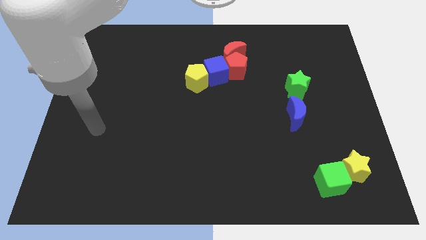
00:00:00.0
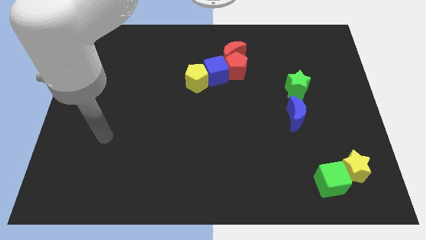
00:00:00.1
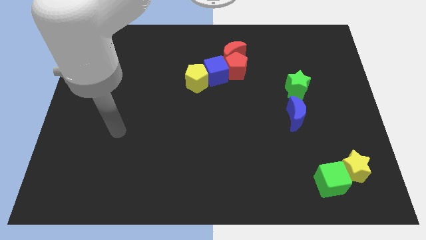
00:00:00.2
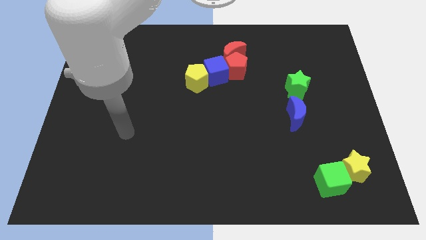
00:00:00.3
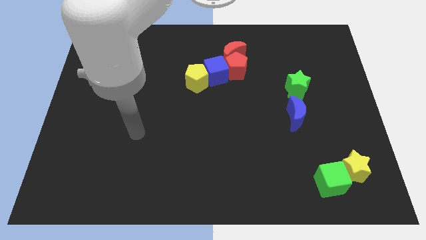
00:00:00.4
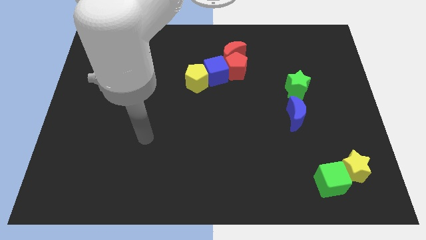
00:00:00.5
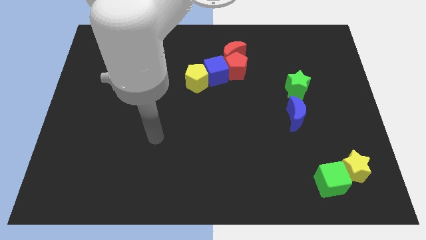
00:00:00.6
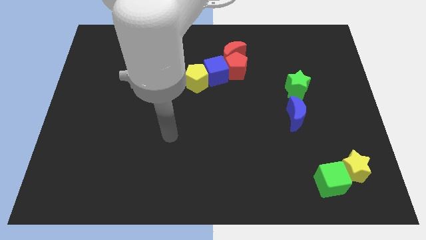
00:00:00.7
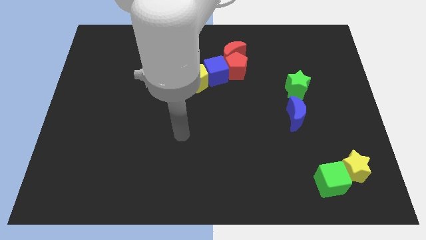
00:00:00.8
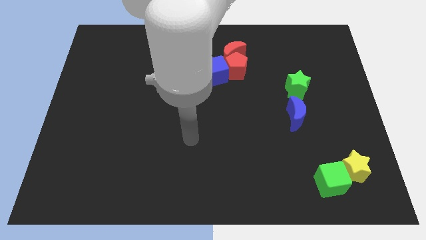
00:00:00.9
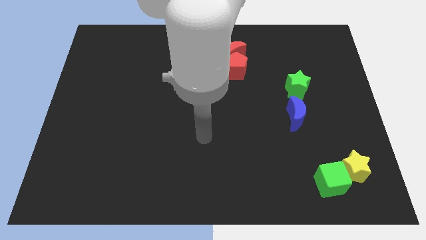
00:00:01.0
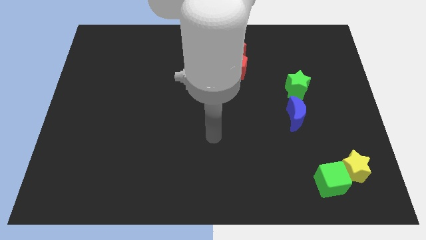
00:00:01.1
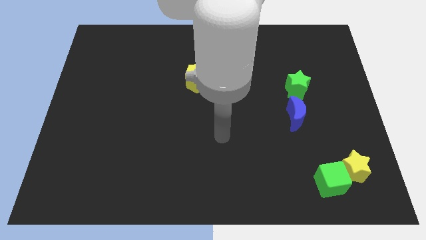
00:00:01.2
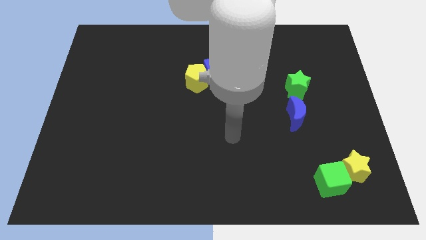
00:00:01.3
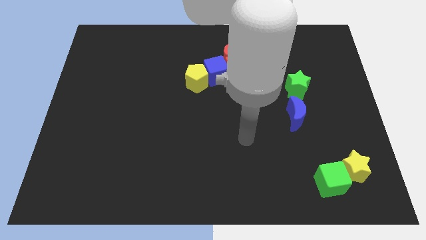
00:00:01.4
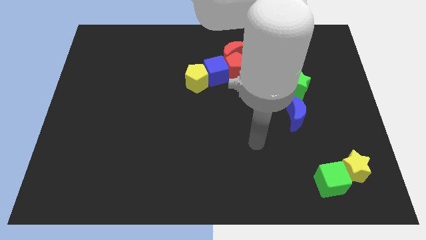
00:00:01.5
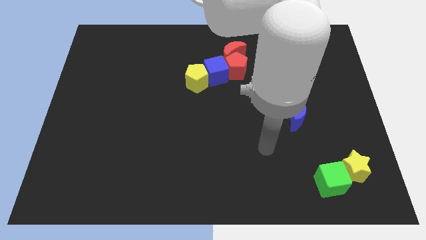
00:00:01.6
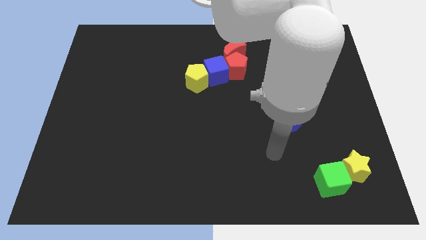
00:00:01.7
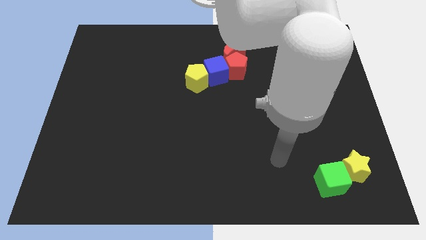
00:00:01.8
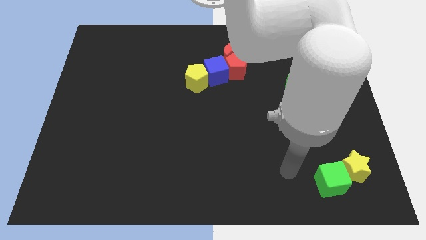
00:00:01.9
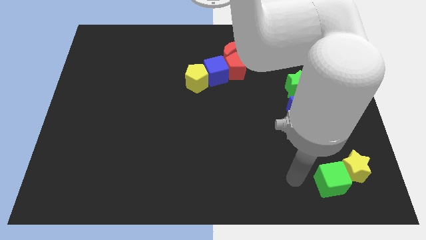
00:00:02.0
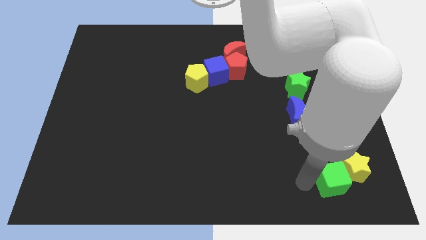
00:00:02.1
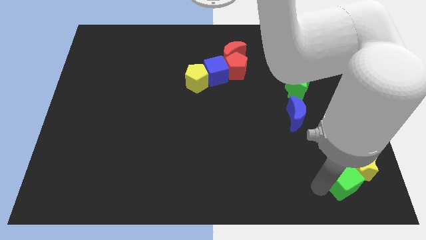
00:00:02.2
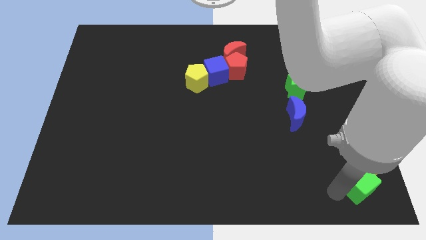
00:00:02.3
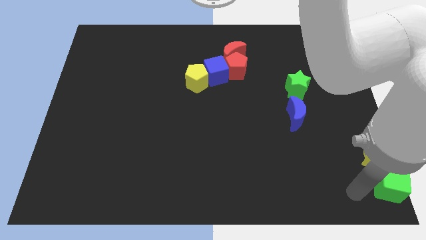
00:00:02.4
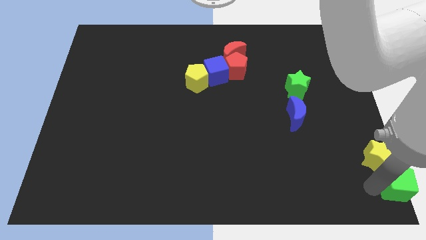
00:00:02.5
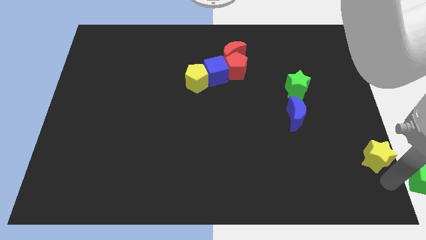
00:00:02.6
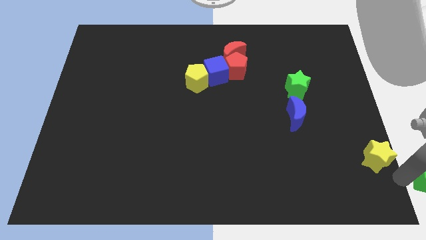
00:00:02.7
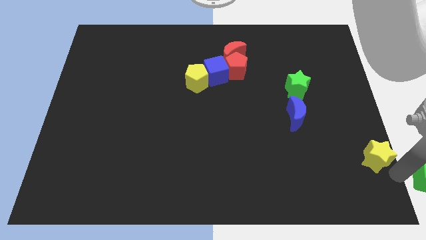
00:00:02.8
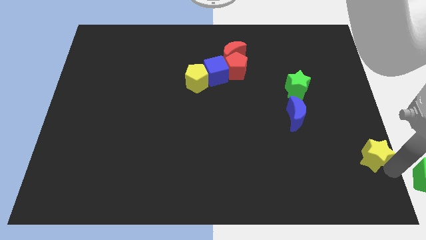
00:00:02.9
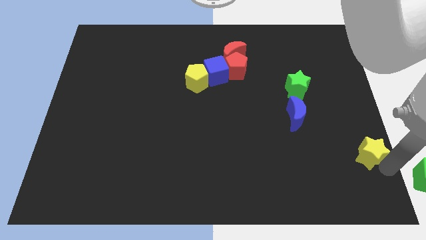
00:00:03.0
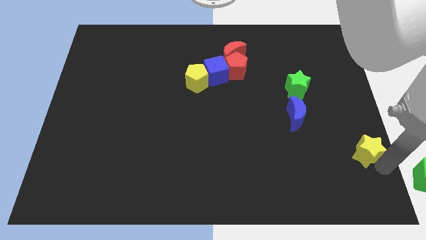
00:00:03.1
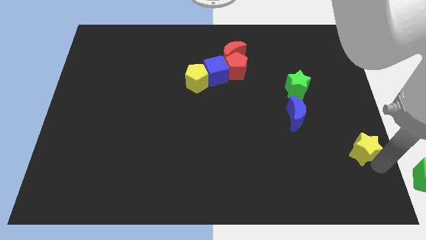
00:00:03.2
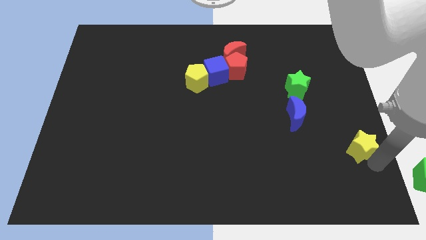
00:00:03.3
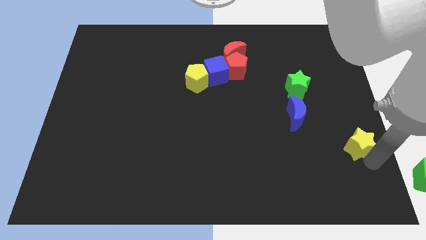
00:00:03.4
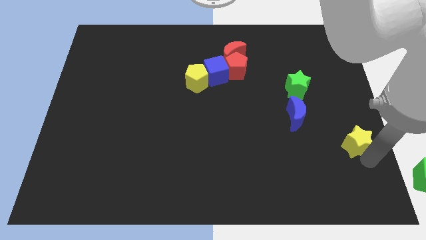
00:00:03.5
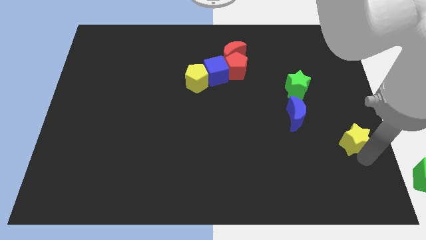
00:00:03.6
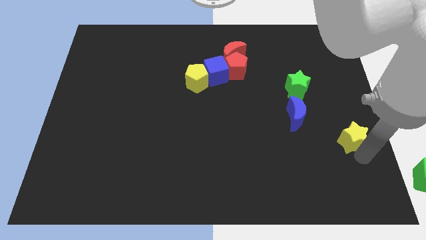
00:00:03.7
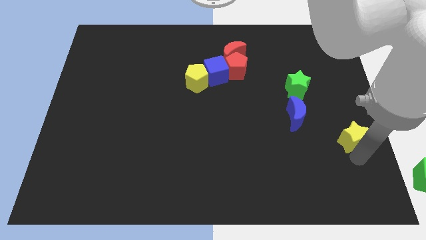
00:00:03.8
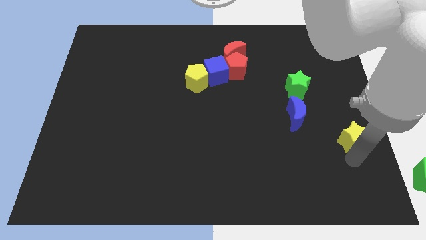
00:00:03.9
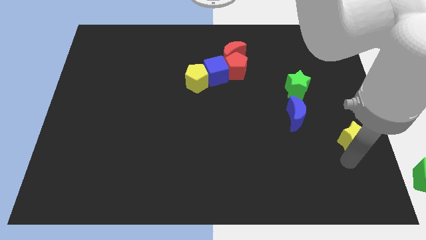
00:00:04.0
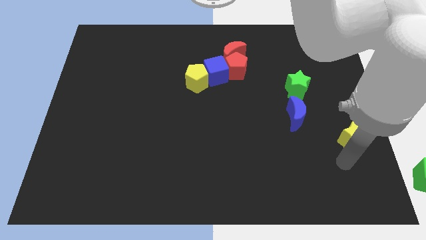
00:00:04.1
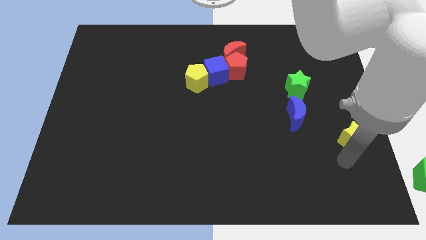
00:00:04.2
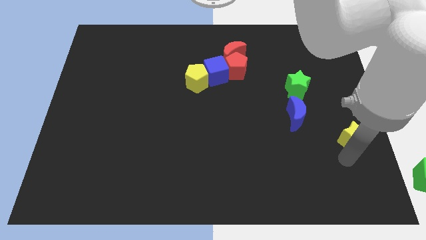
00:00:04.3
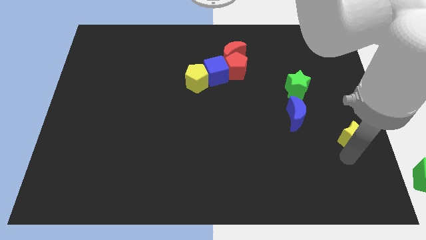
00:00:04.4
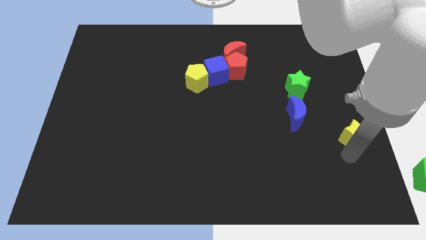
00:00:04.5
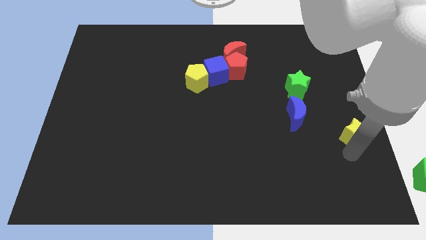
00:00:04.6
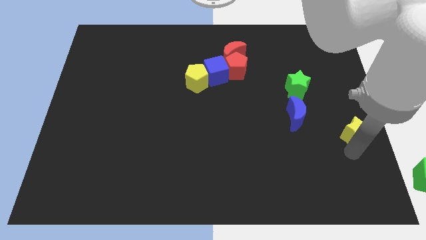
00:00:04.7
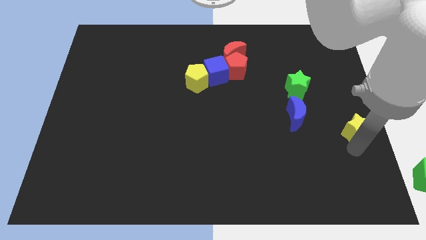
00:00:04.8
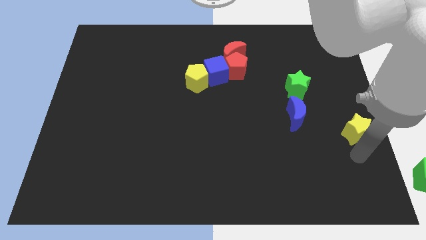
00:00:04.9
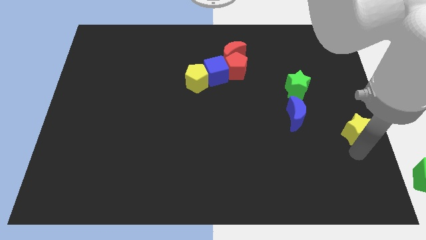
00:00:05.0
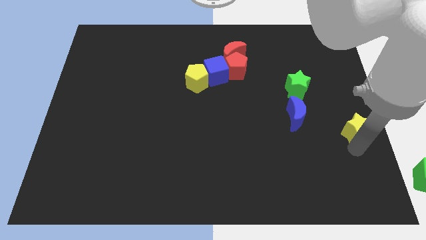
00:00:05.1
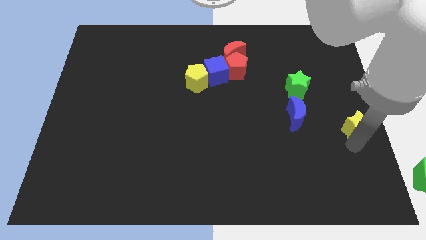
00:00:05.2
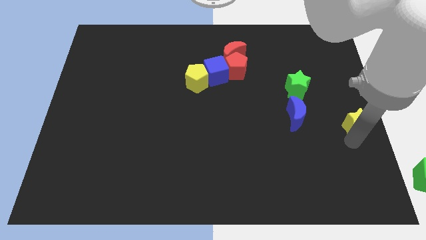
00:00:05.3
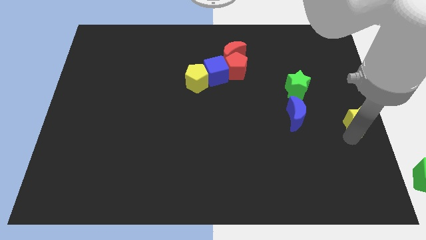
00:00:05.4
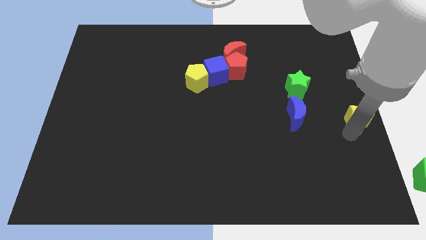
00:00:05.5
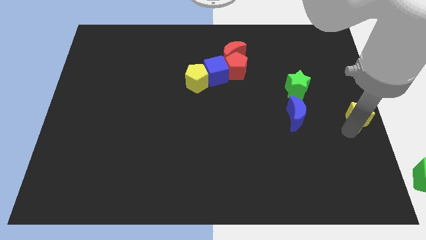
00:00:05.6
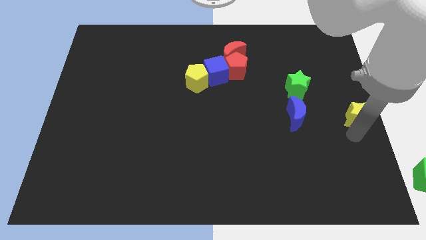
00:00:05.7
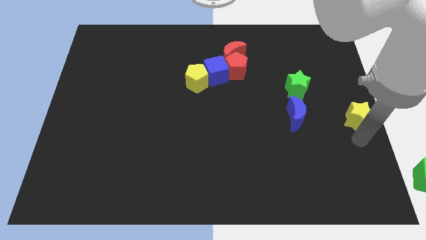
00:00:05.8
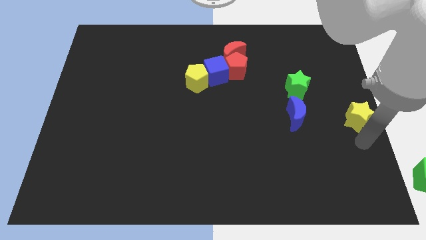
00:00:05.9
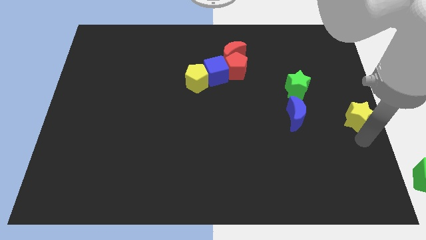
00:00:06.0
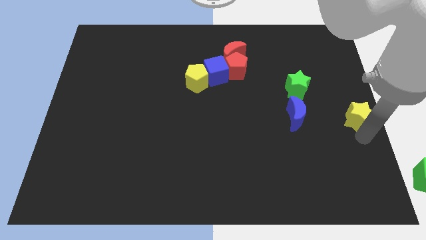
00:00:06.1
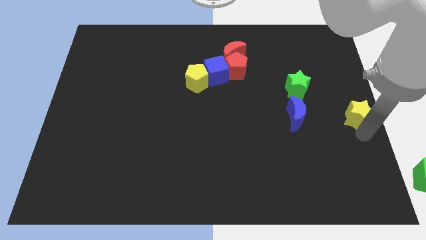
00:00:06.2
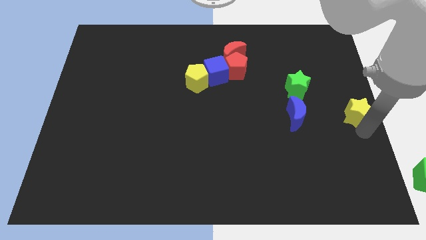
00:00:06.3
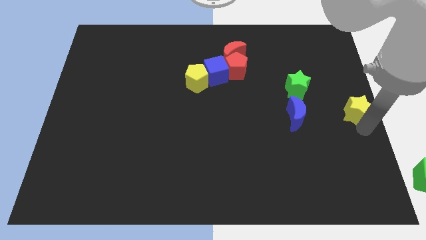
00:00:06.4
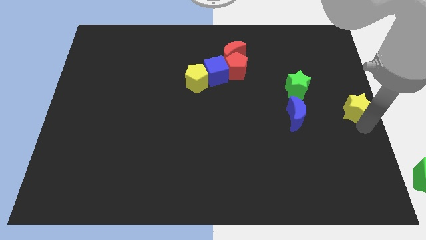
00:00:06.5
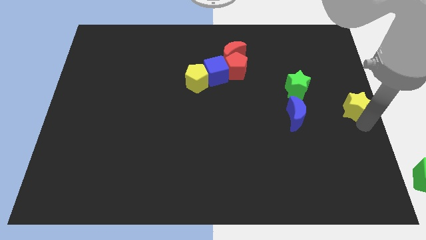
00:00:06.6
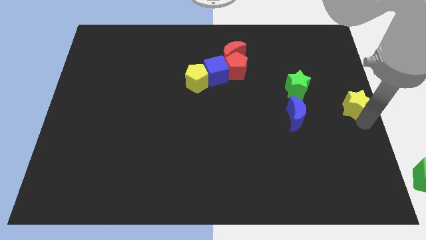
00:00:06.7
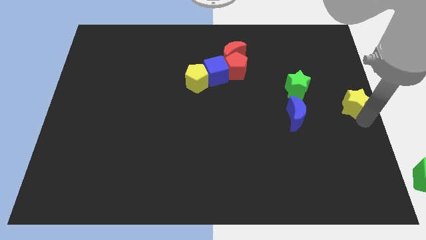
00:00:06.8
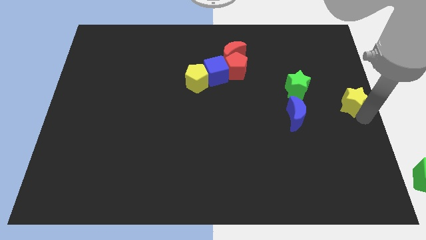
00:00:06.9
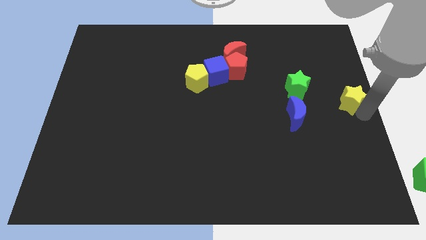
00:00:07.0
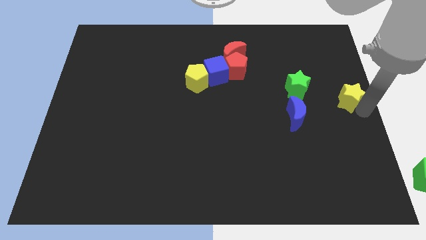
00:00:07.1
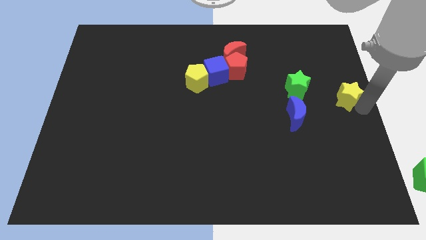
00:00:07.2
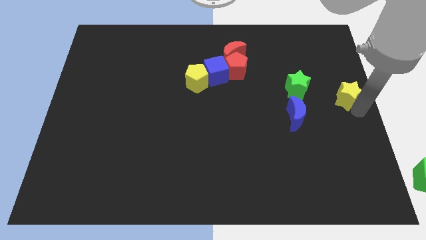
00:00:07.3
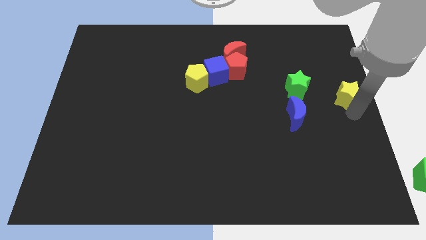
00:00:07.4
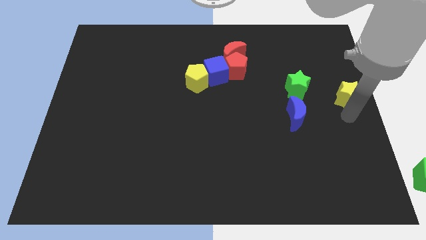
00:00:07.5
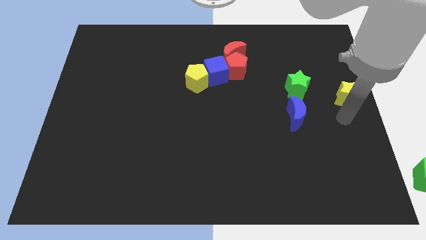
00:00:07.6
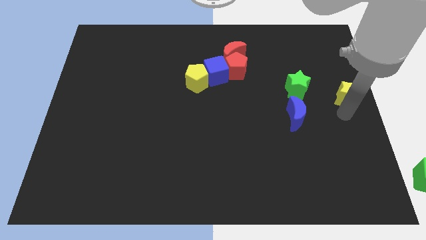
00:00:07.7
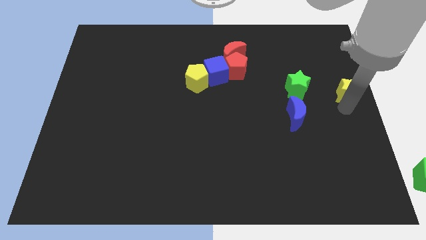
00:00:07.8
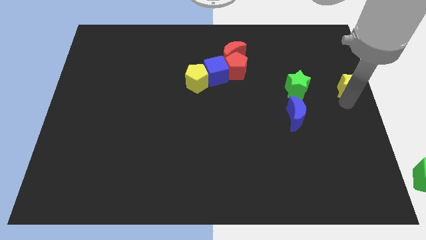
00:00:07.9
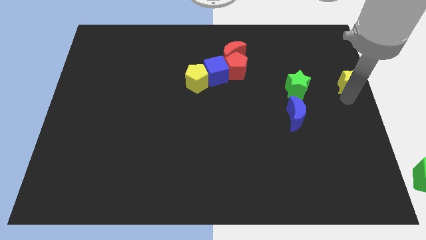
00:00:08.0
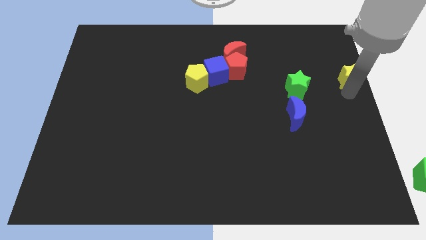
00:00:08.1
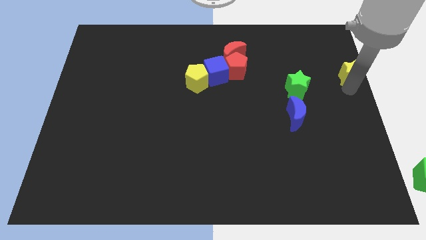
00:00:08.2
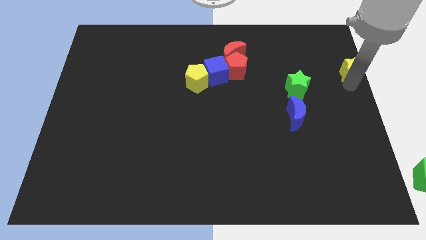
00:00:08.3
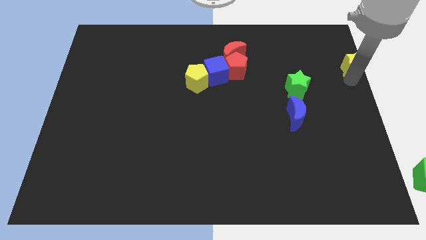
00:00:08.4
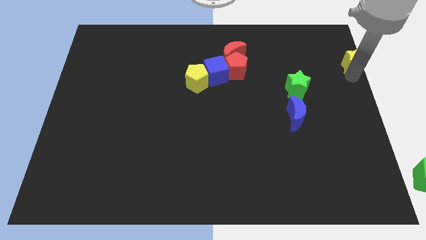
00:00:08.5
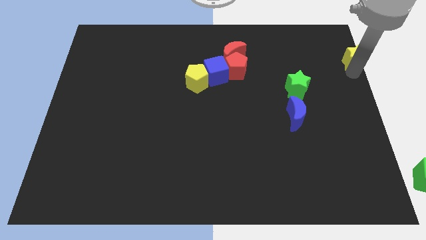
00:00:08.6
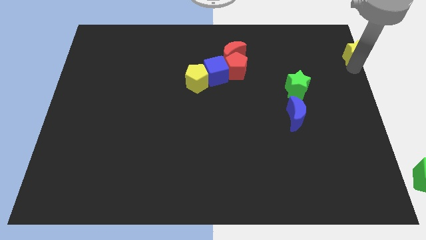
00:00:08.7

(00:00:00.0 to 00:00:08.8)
push the yellow star to the top right corner
